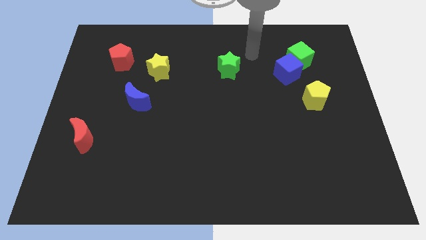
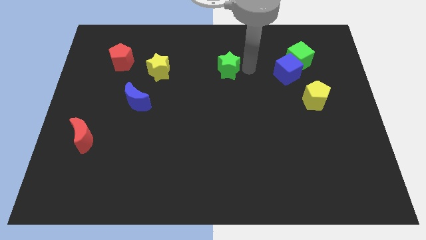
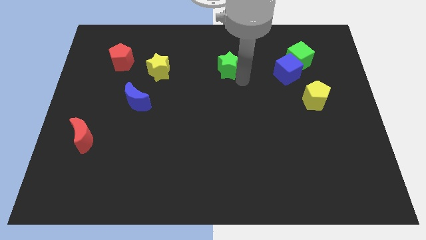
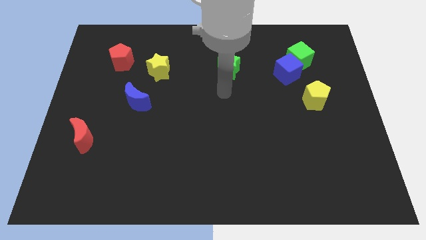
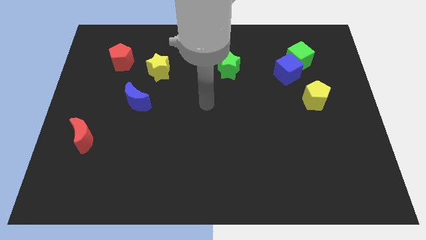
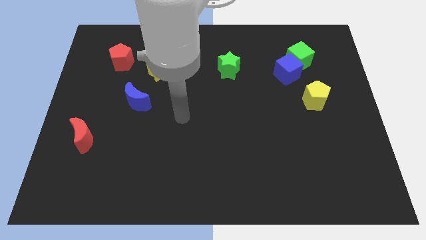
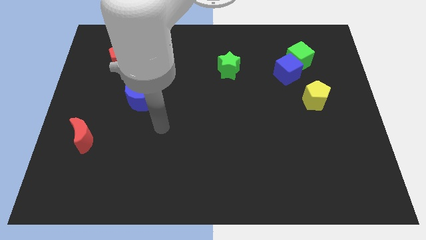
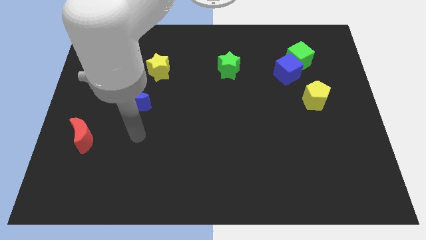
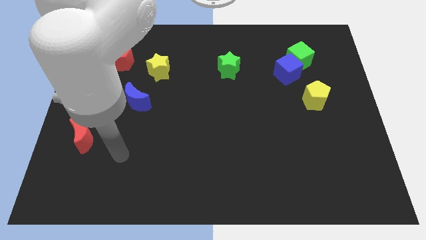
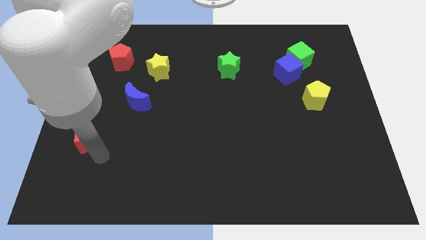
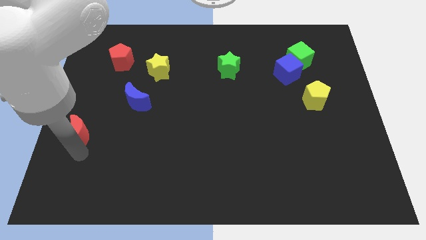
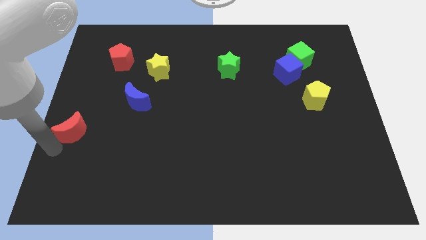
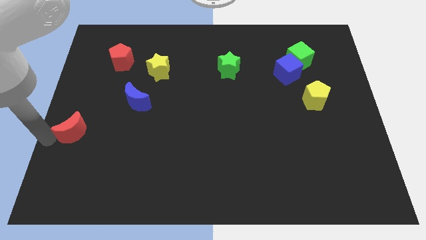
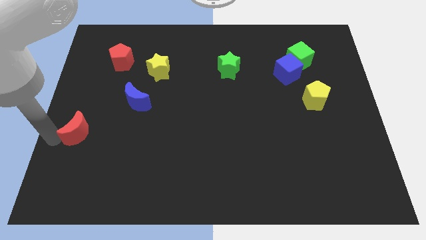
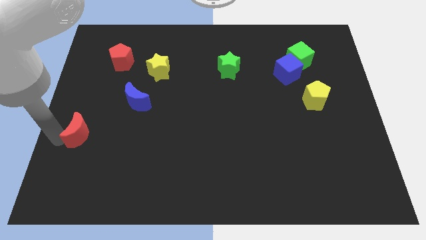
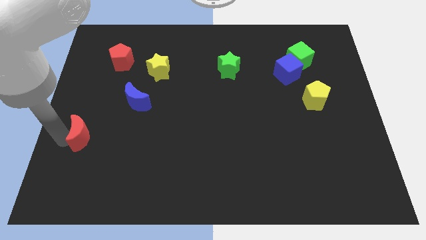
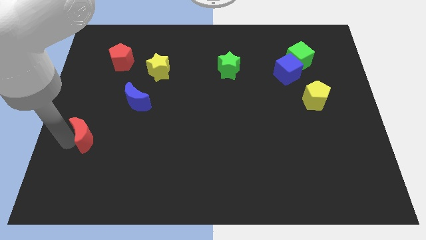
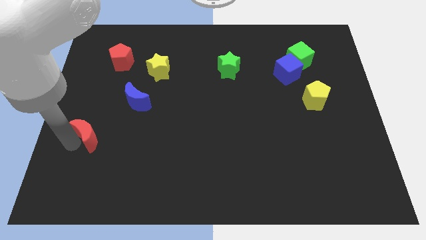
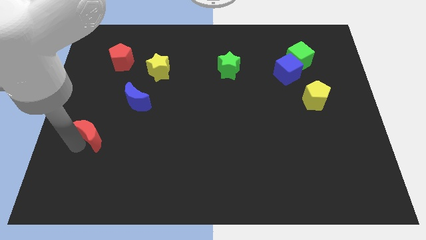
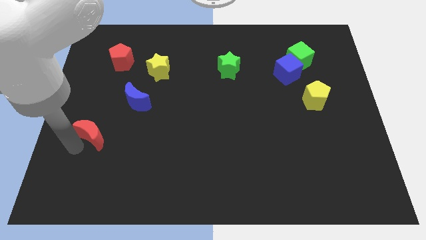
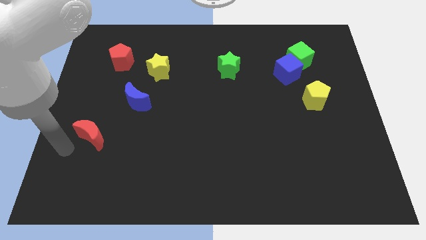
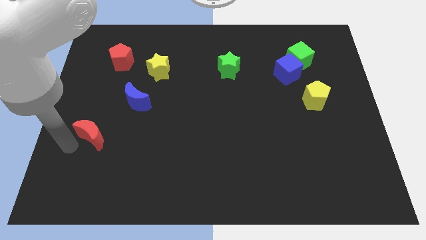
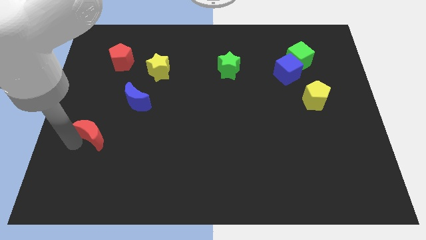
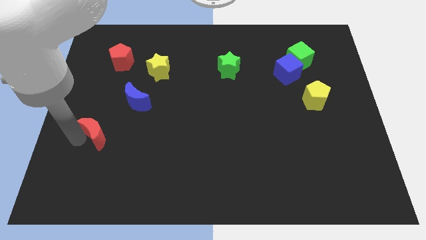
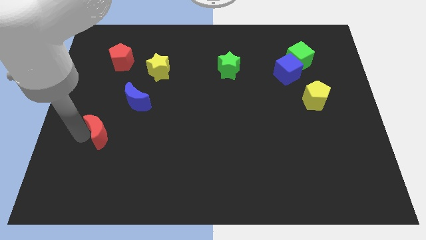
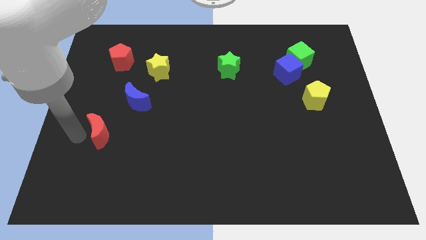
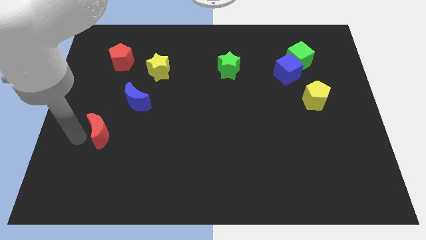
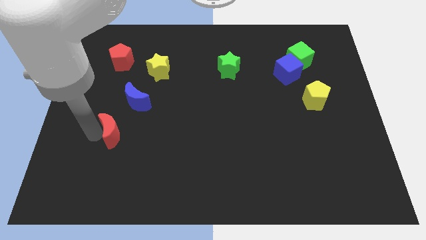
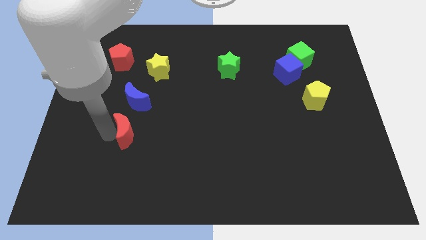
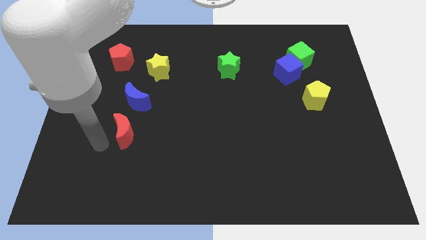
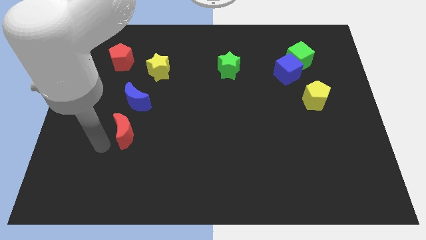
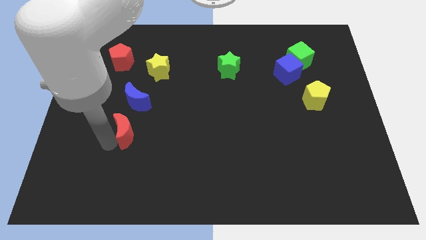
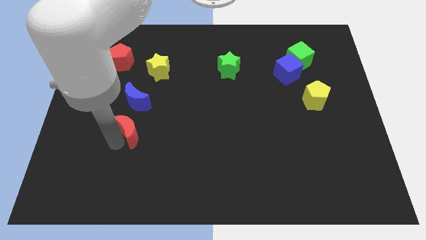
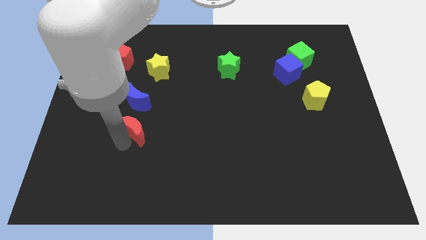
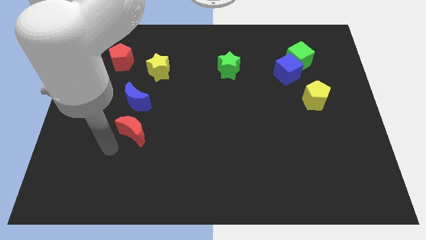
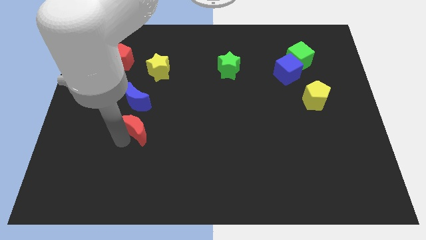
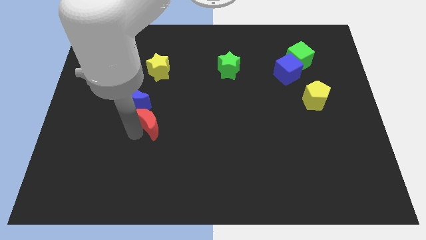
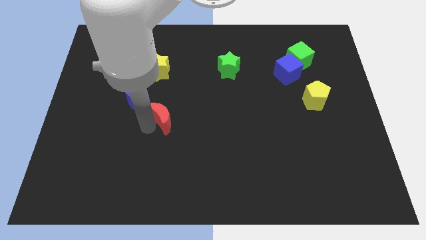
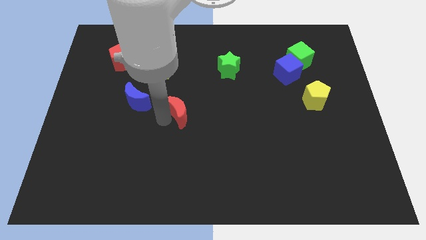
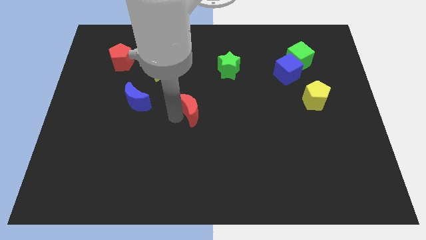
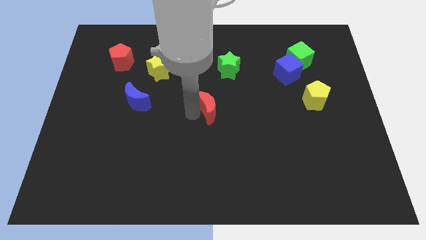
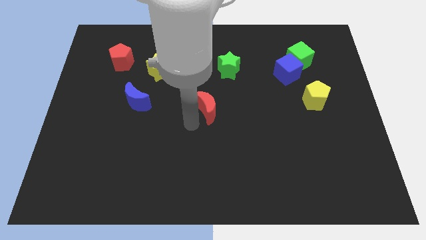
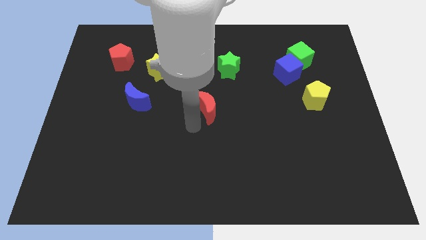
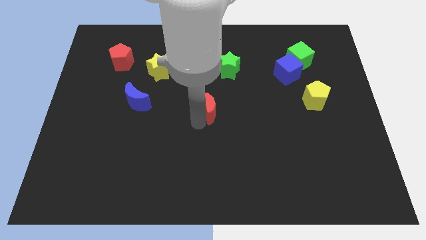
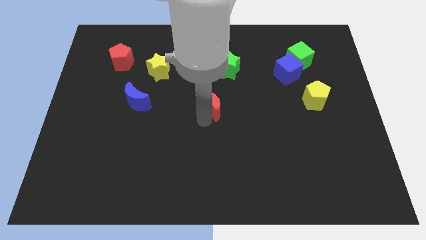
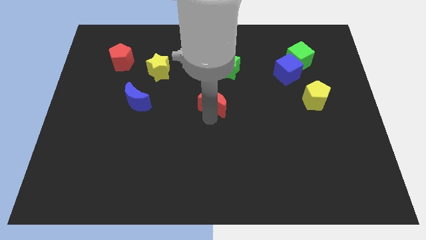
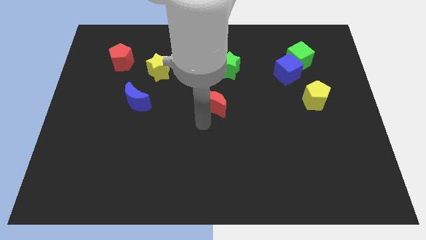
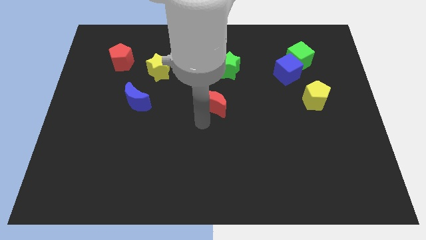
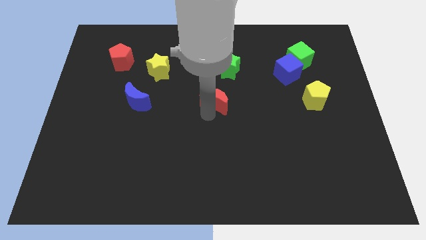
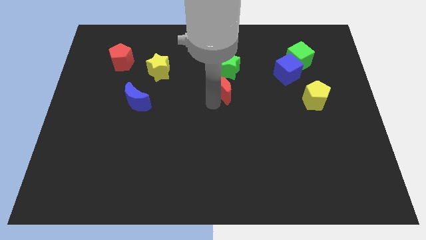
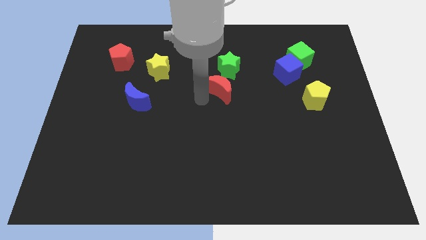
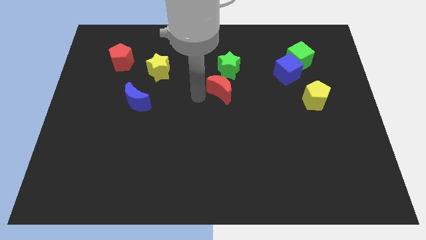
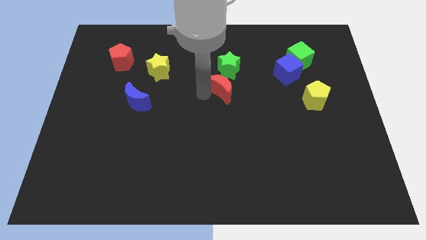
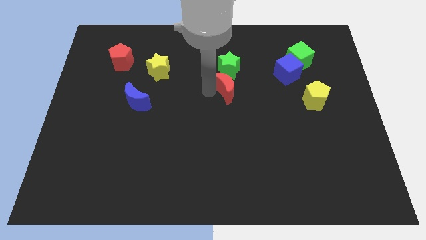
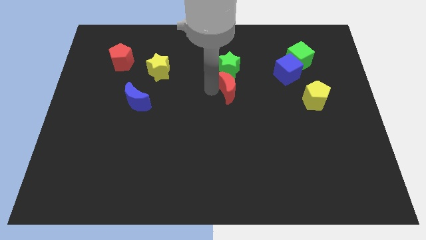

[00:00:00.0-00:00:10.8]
move the red moon to the bottom right of the green star

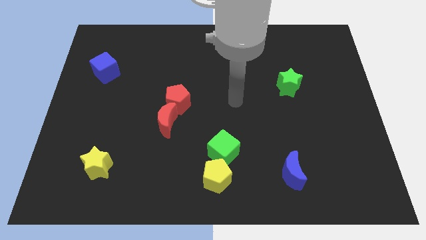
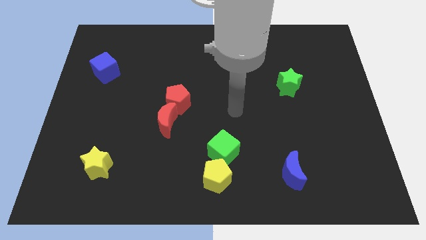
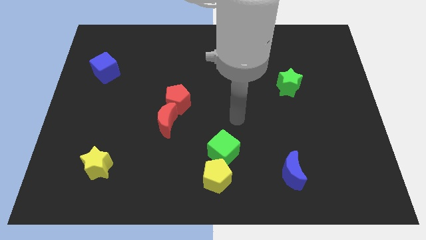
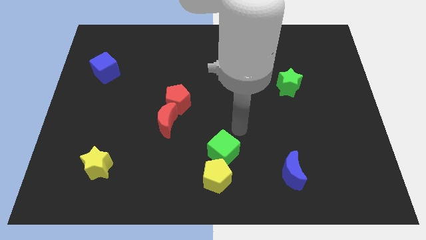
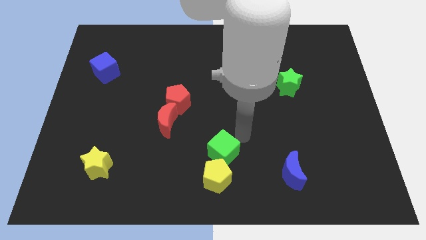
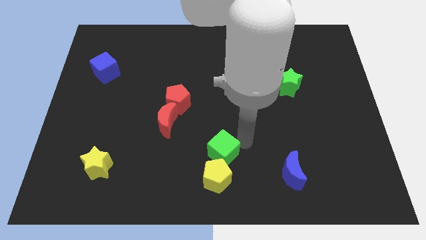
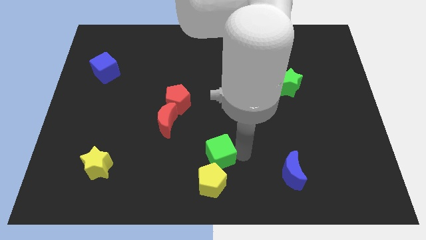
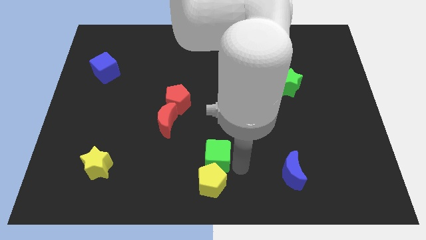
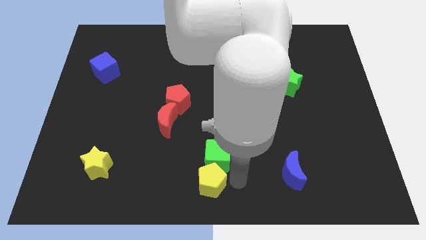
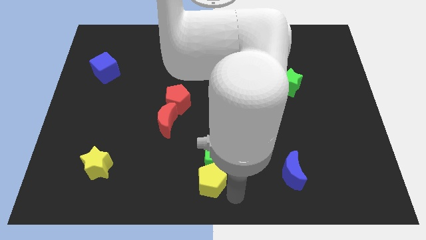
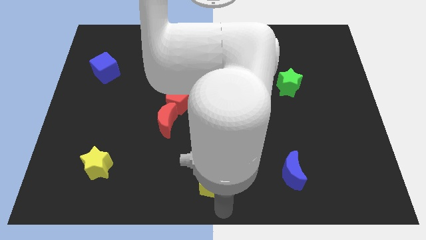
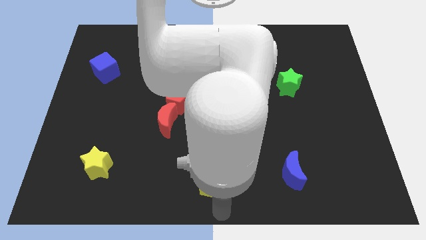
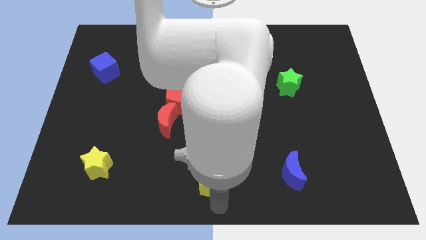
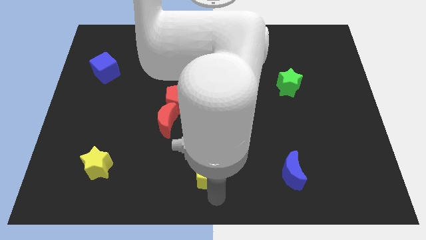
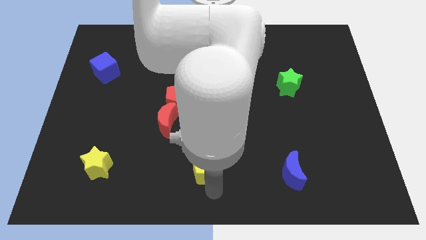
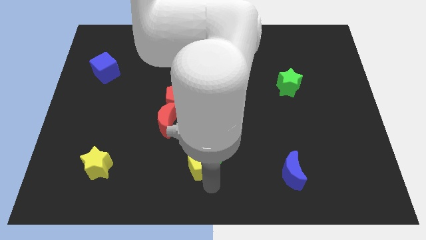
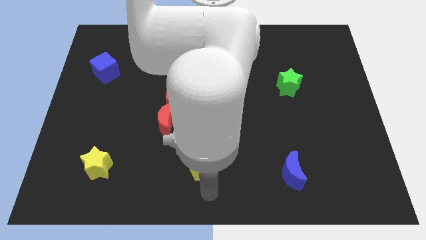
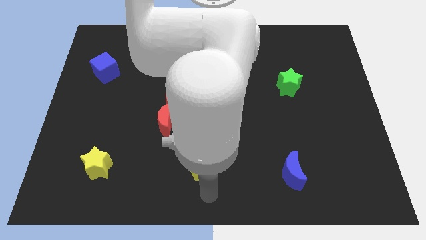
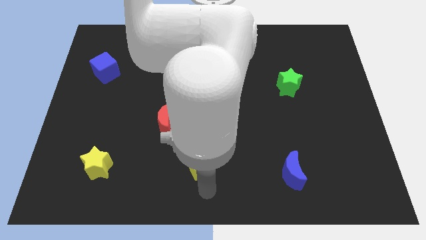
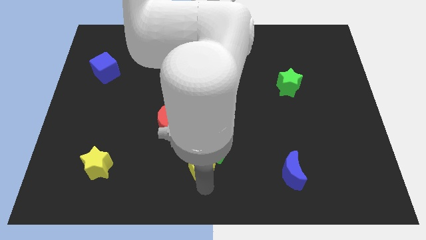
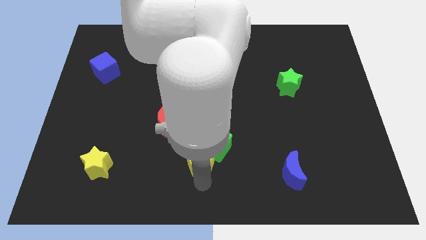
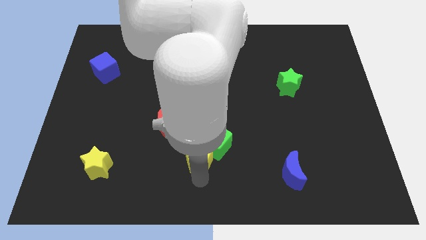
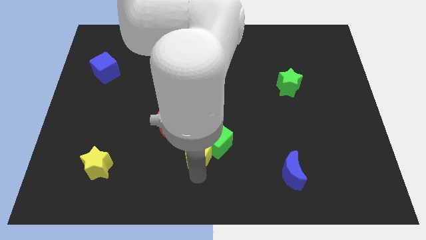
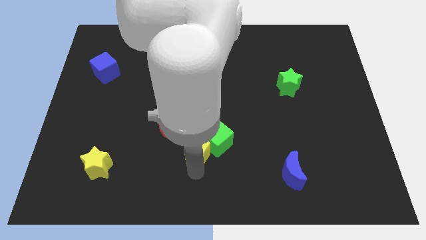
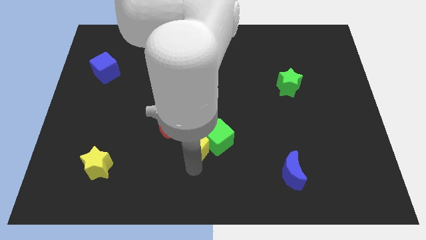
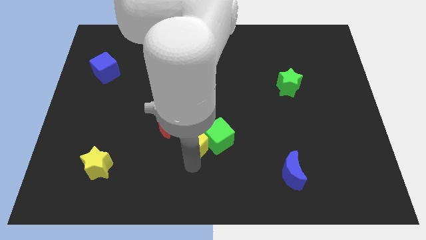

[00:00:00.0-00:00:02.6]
push the yellow pentagon to the top left of the green cube
